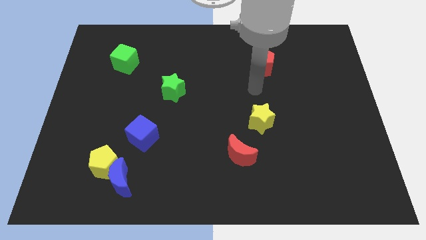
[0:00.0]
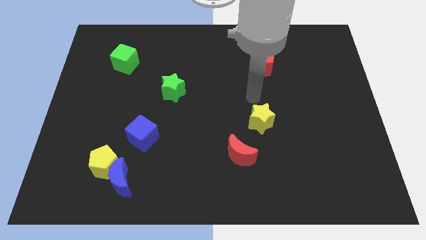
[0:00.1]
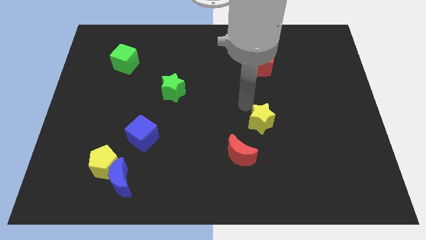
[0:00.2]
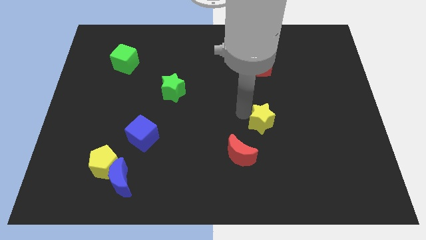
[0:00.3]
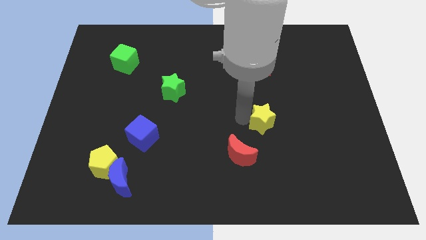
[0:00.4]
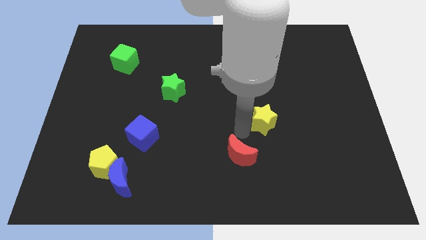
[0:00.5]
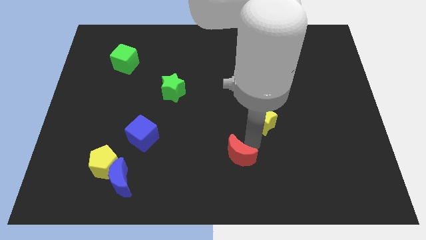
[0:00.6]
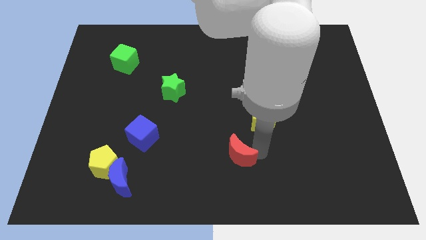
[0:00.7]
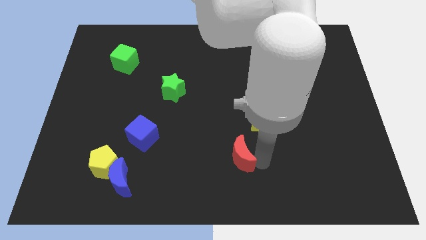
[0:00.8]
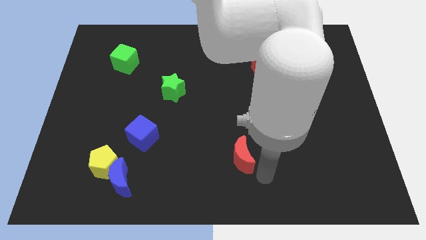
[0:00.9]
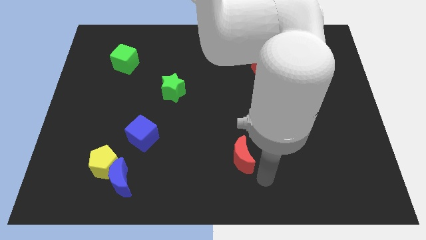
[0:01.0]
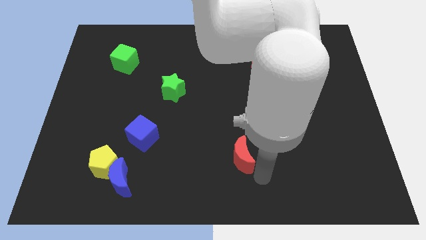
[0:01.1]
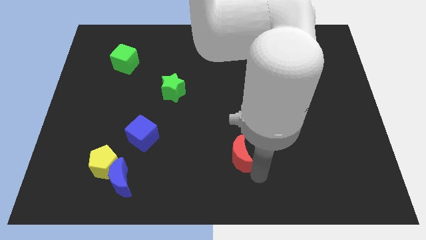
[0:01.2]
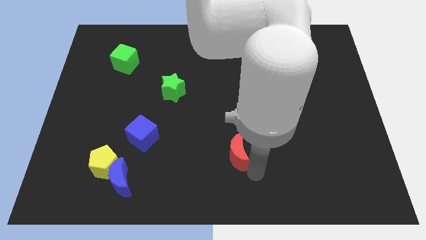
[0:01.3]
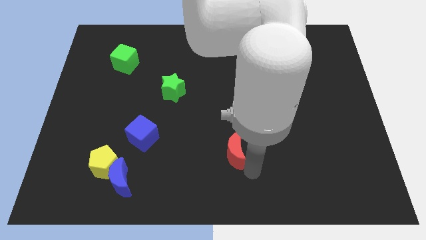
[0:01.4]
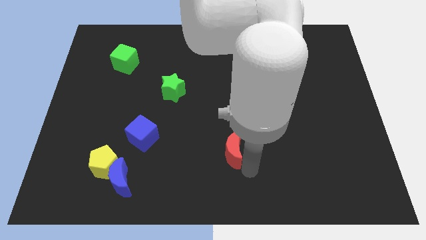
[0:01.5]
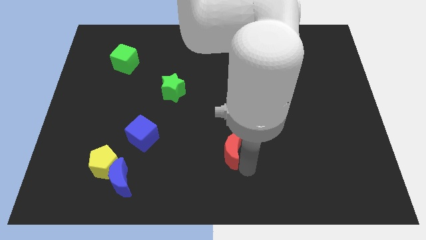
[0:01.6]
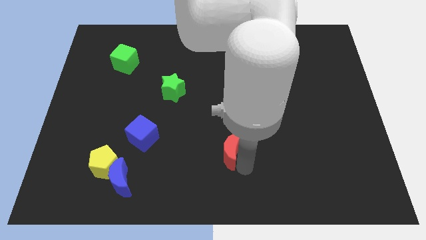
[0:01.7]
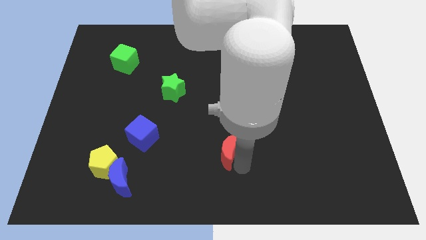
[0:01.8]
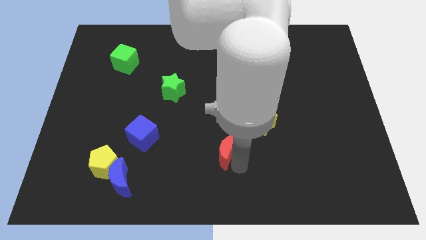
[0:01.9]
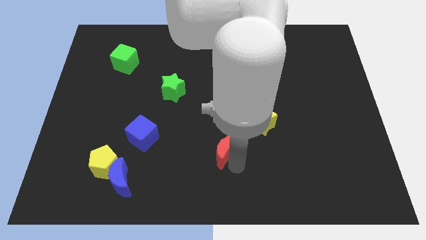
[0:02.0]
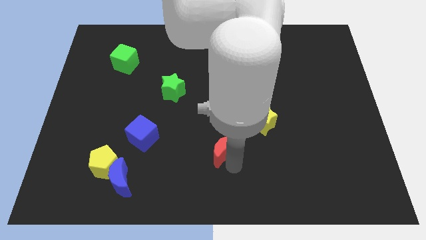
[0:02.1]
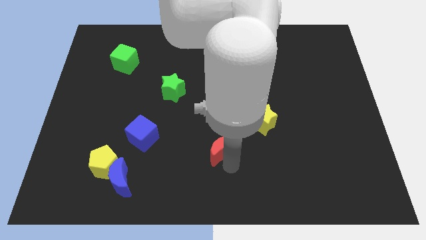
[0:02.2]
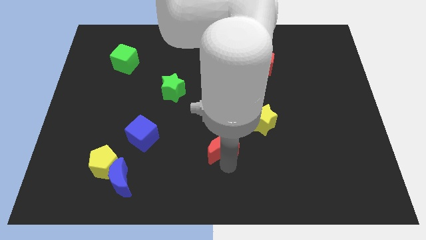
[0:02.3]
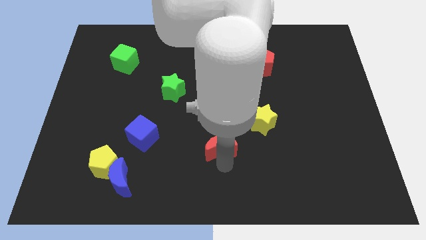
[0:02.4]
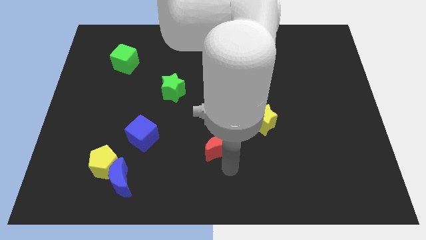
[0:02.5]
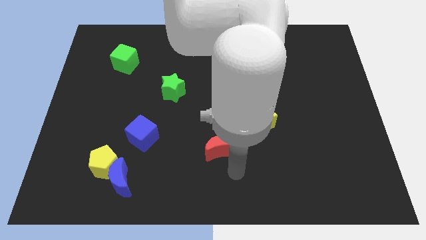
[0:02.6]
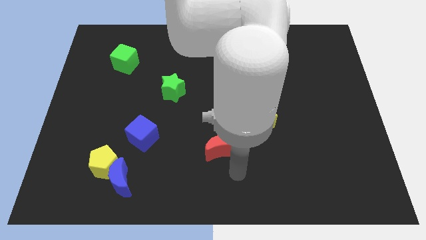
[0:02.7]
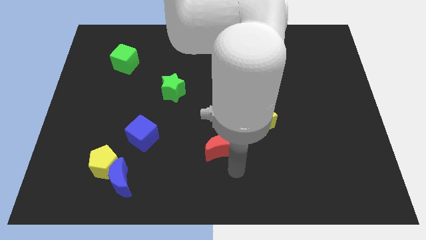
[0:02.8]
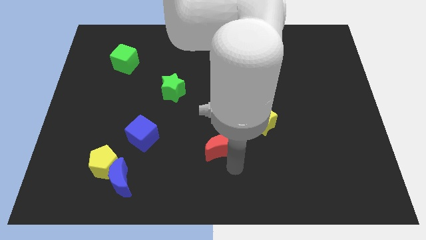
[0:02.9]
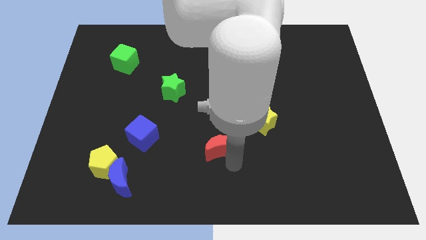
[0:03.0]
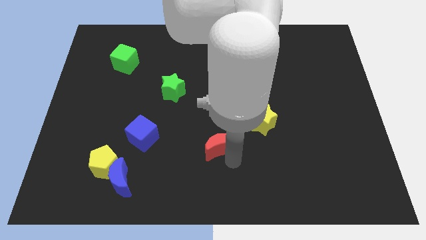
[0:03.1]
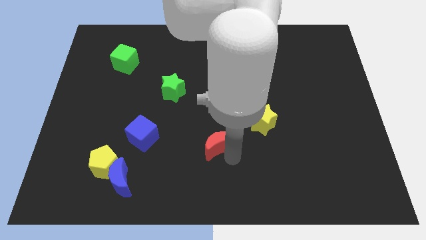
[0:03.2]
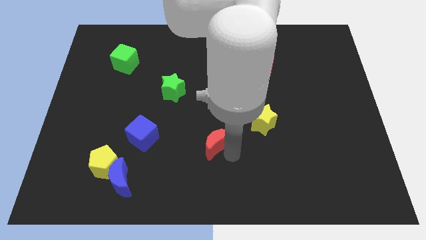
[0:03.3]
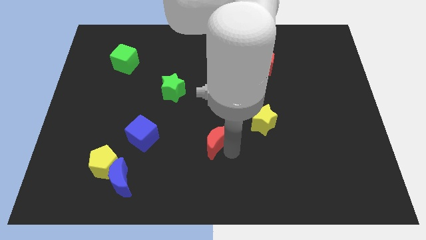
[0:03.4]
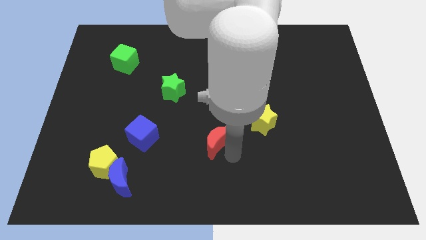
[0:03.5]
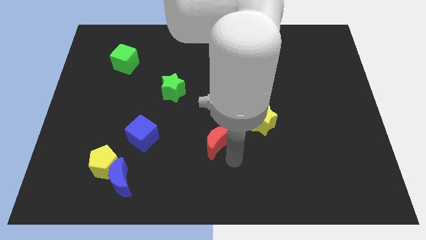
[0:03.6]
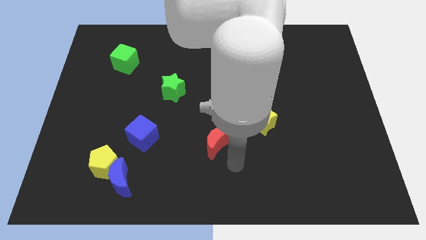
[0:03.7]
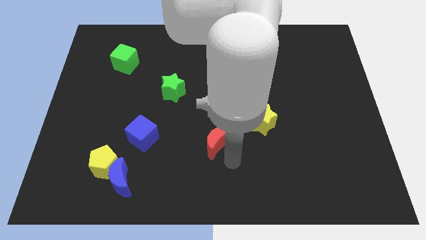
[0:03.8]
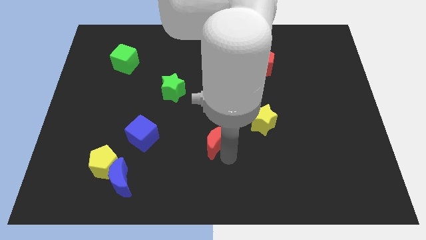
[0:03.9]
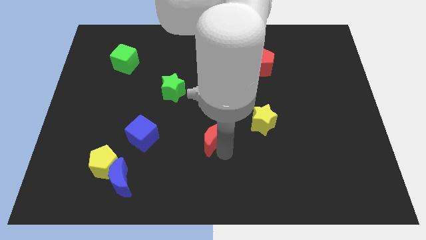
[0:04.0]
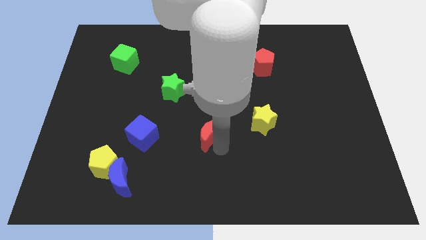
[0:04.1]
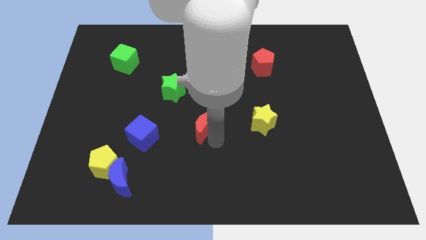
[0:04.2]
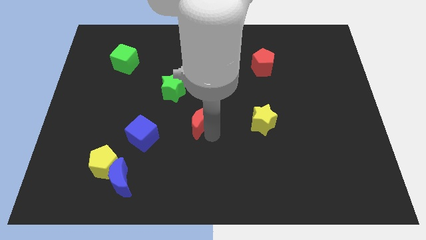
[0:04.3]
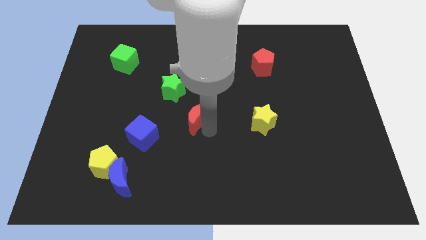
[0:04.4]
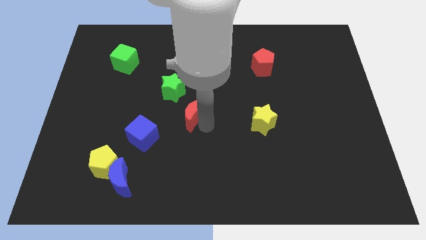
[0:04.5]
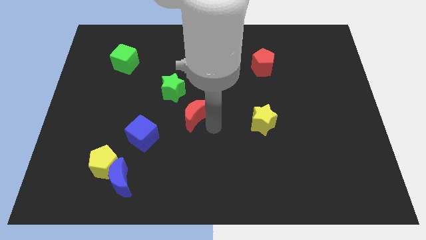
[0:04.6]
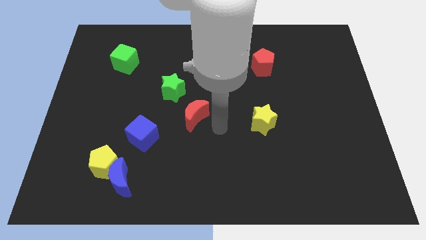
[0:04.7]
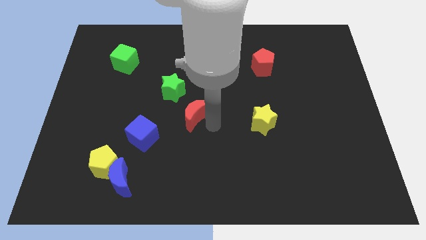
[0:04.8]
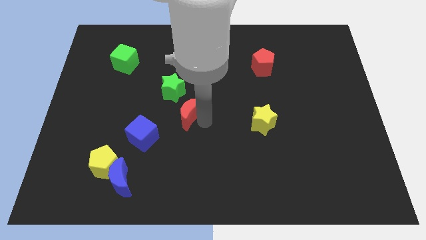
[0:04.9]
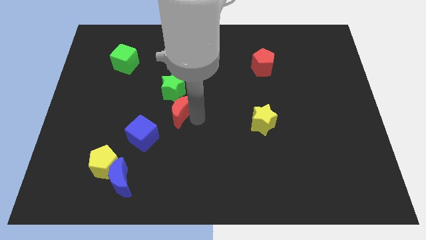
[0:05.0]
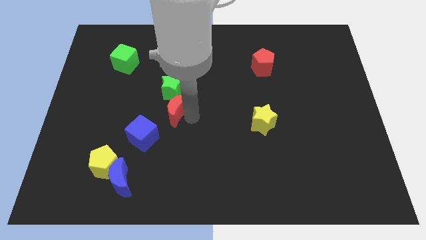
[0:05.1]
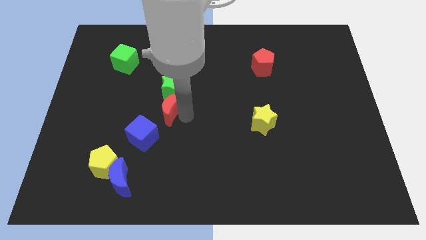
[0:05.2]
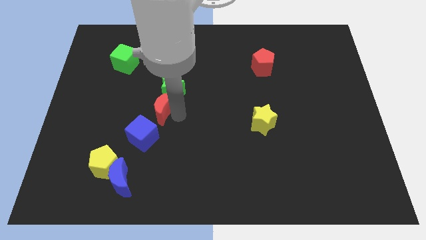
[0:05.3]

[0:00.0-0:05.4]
move the red moon diagonally up and left

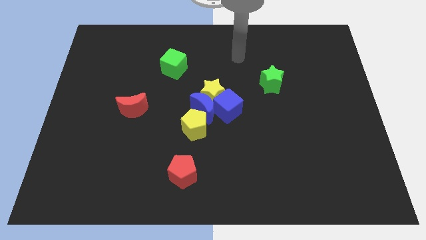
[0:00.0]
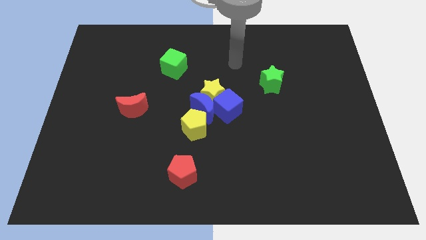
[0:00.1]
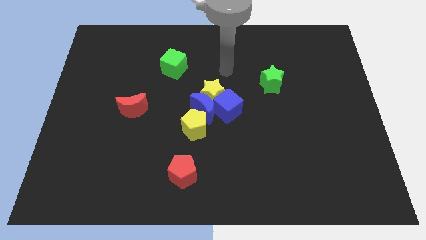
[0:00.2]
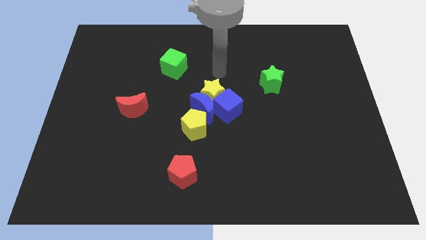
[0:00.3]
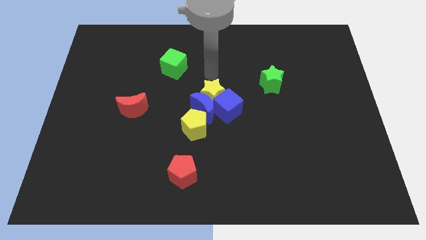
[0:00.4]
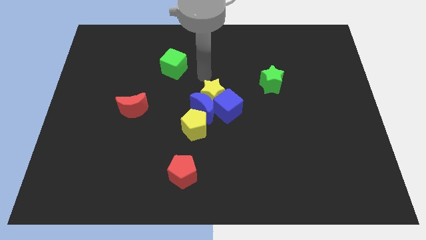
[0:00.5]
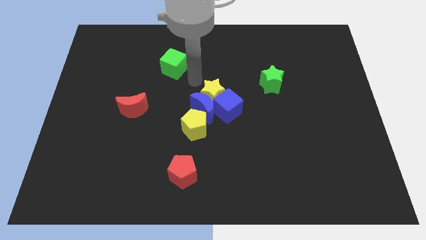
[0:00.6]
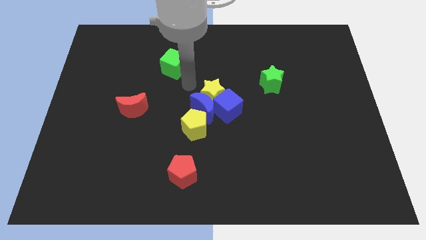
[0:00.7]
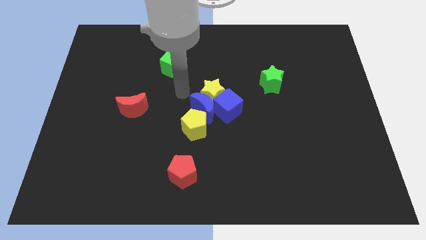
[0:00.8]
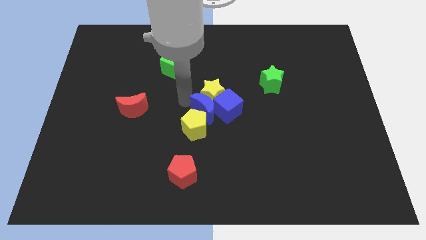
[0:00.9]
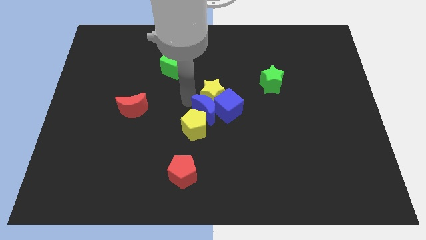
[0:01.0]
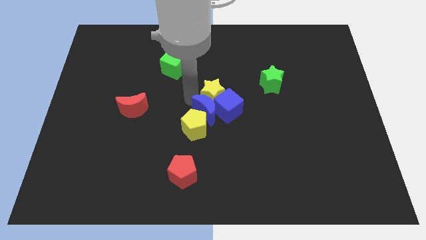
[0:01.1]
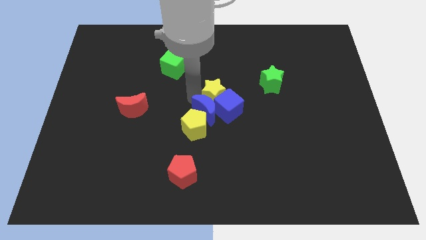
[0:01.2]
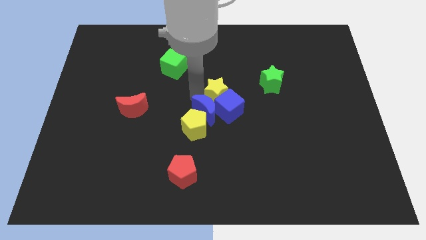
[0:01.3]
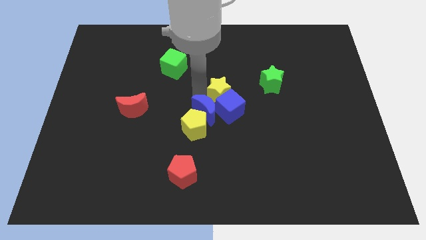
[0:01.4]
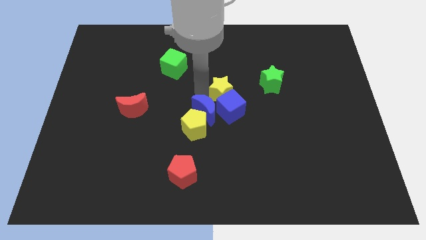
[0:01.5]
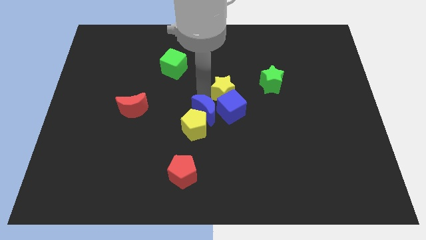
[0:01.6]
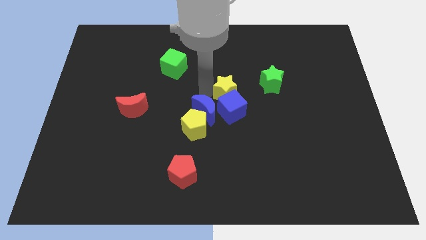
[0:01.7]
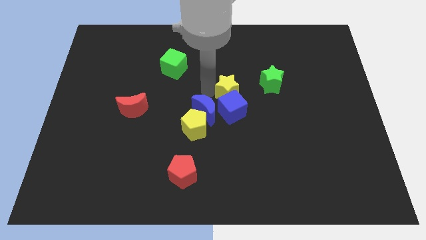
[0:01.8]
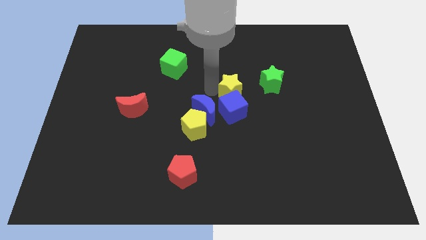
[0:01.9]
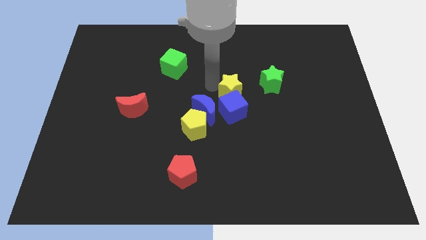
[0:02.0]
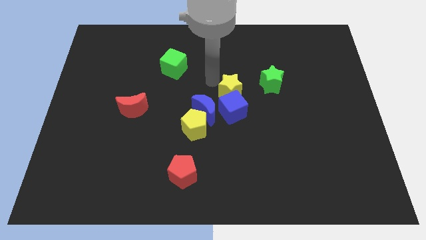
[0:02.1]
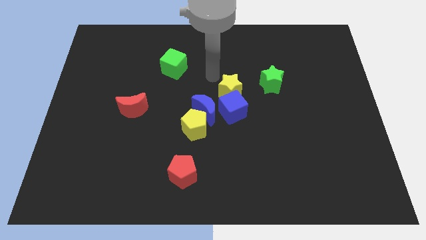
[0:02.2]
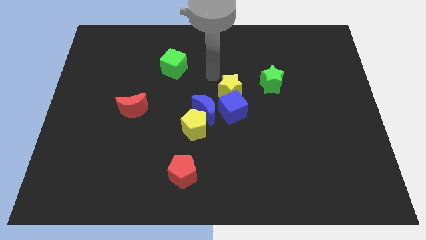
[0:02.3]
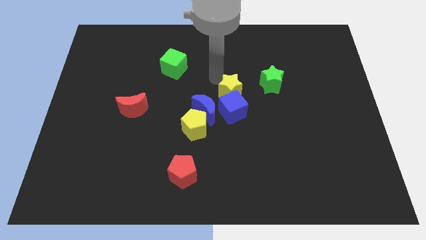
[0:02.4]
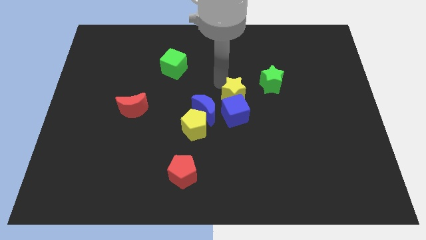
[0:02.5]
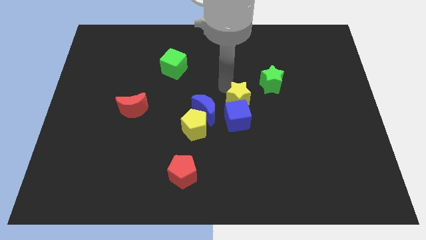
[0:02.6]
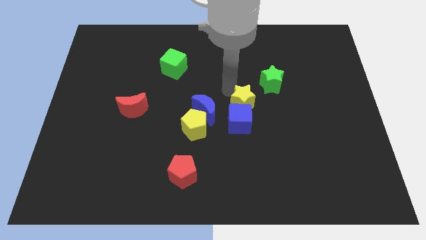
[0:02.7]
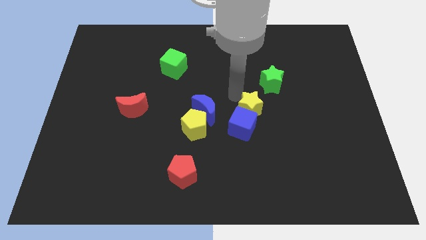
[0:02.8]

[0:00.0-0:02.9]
slide the yellow star somewhat down and then right

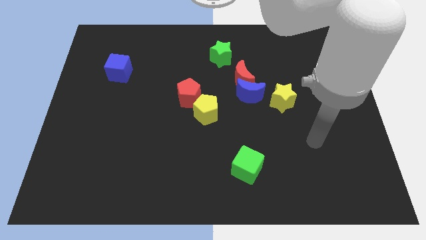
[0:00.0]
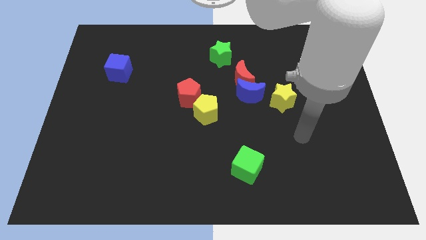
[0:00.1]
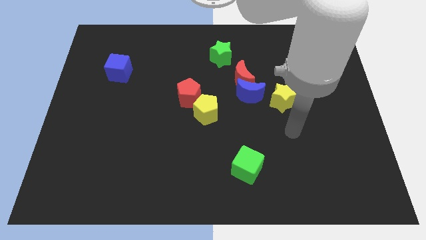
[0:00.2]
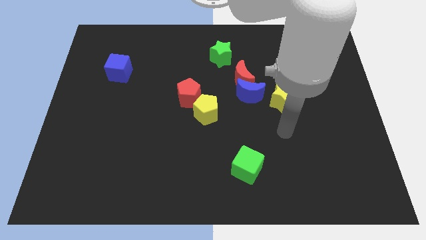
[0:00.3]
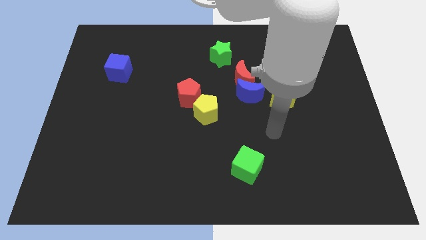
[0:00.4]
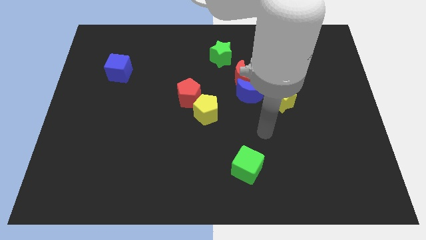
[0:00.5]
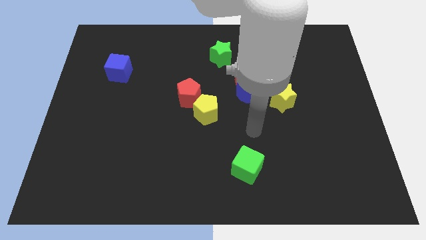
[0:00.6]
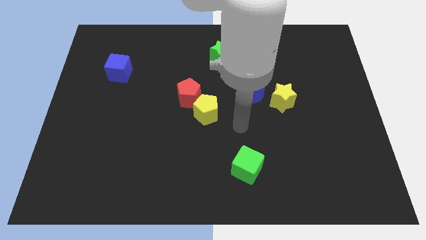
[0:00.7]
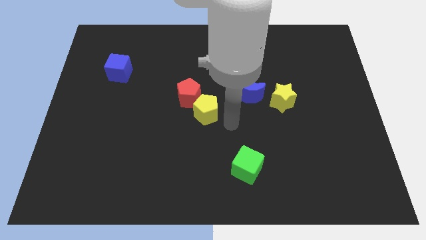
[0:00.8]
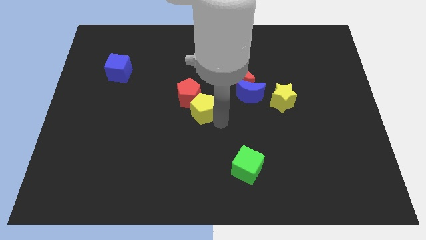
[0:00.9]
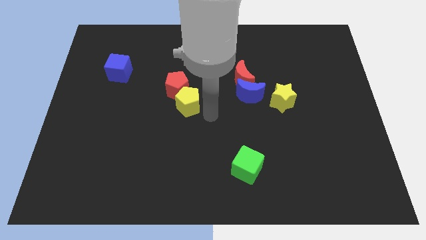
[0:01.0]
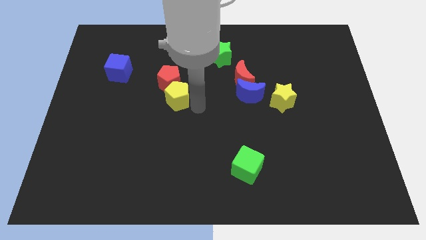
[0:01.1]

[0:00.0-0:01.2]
push the red pentagon diagonally up and to the left a little
